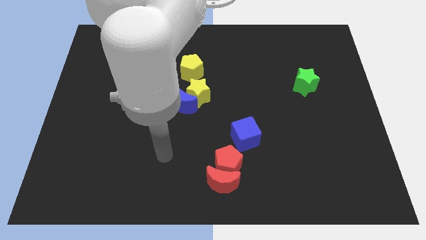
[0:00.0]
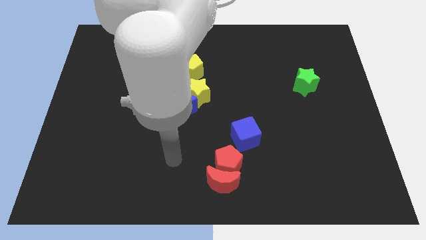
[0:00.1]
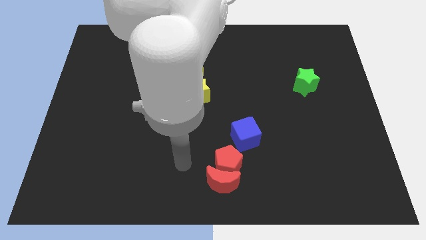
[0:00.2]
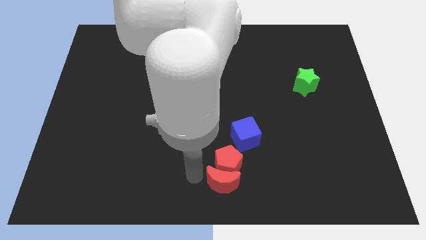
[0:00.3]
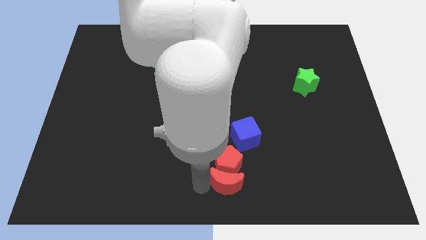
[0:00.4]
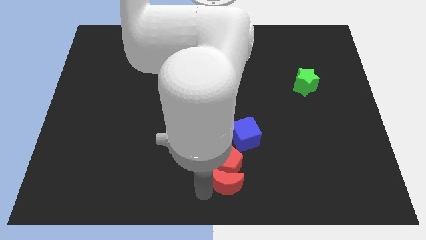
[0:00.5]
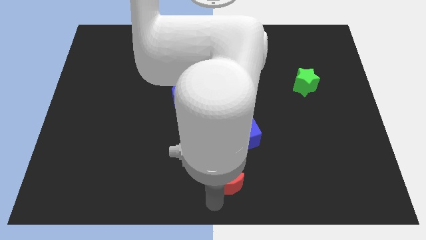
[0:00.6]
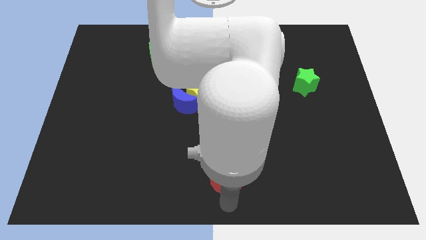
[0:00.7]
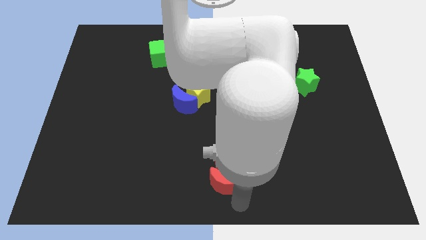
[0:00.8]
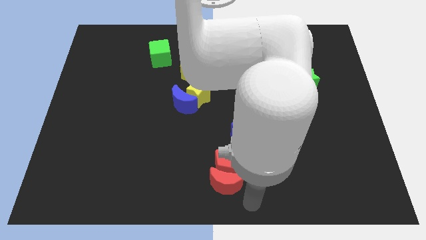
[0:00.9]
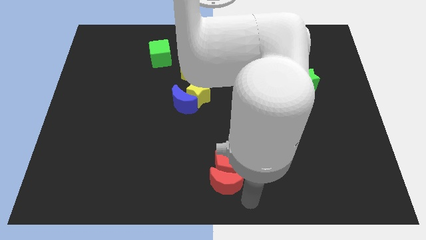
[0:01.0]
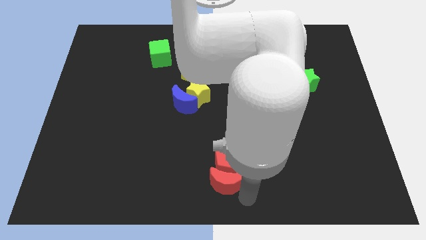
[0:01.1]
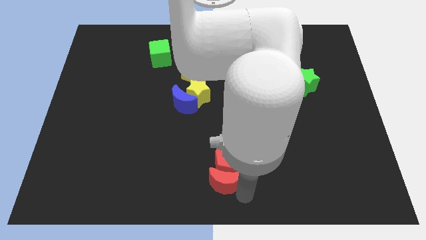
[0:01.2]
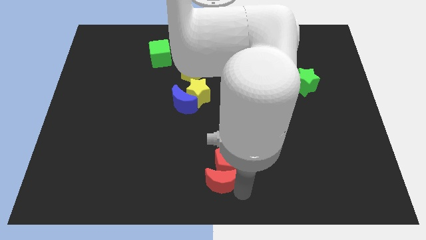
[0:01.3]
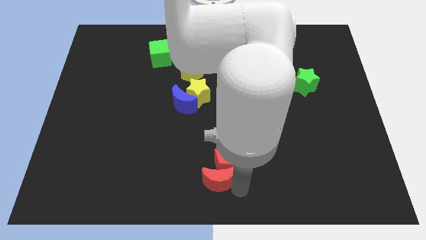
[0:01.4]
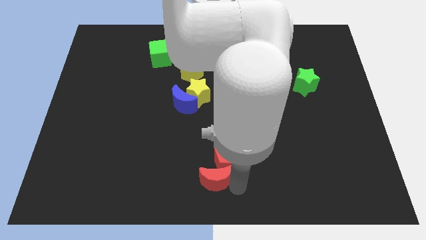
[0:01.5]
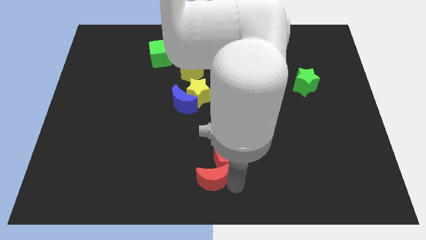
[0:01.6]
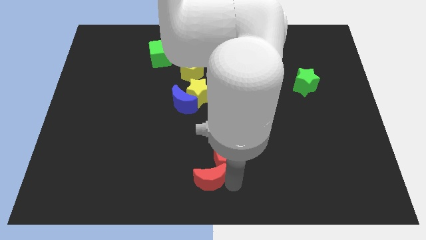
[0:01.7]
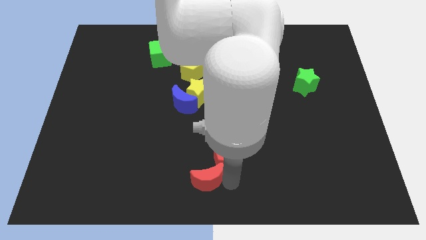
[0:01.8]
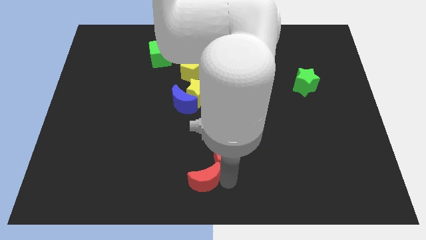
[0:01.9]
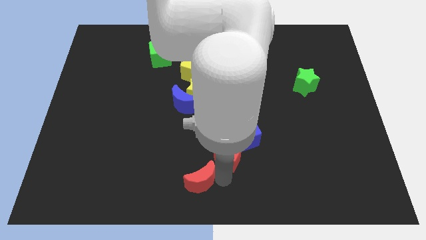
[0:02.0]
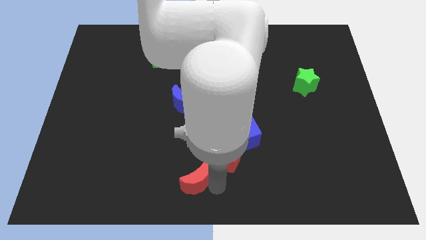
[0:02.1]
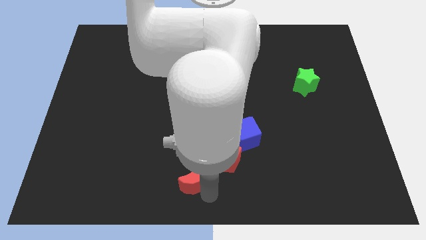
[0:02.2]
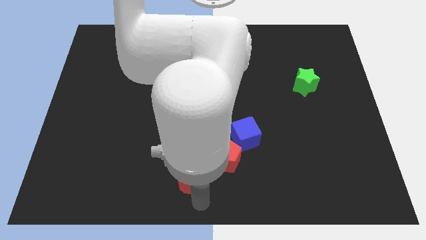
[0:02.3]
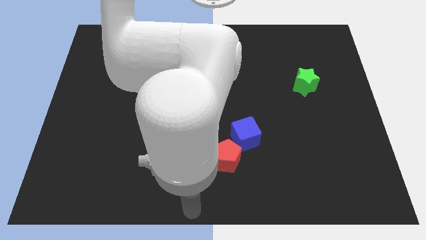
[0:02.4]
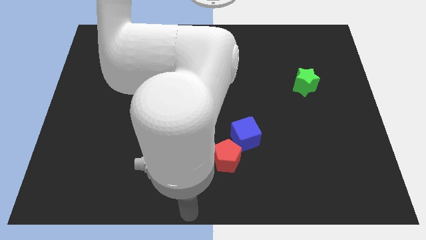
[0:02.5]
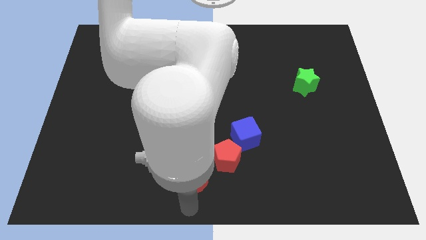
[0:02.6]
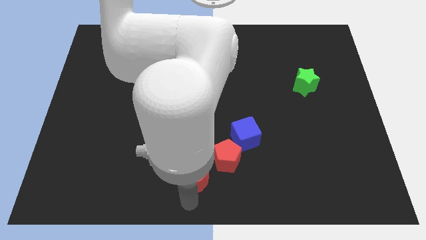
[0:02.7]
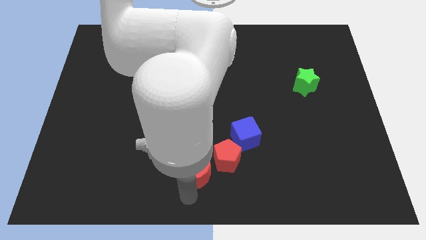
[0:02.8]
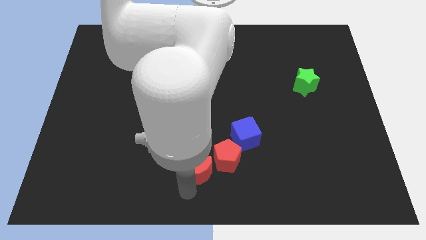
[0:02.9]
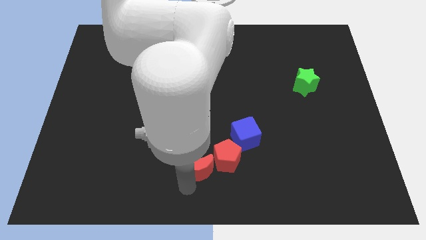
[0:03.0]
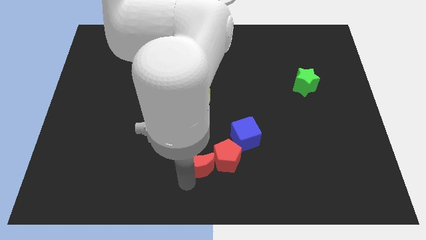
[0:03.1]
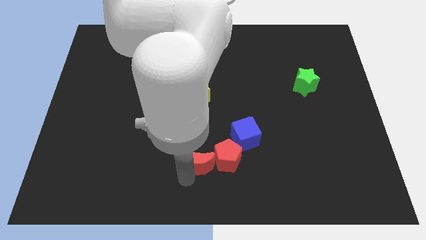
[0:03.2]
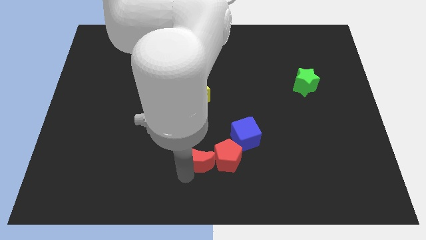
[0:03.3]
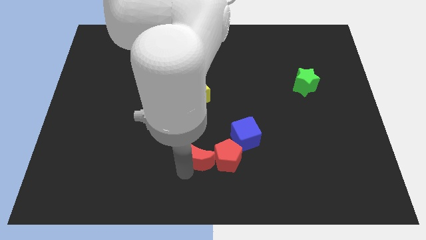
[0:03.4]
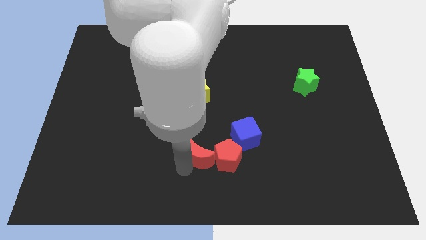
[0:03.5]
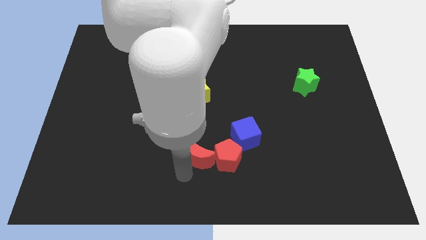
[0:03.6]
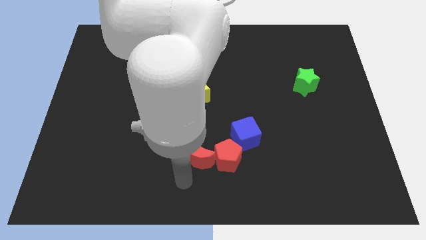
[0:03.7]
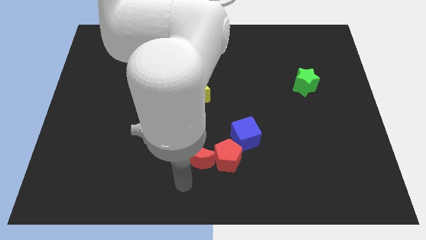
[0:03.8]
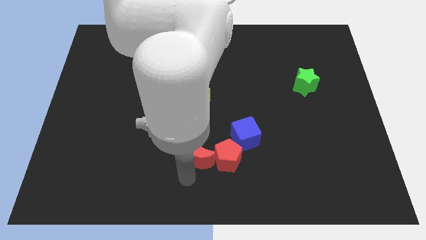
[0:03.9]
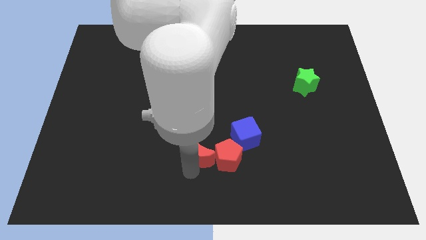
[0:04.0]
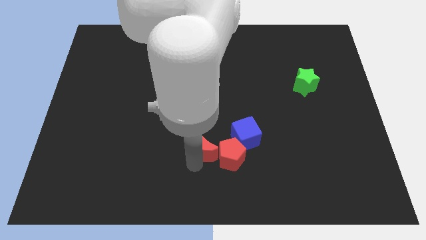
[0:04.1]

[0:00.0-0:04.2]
slightly slide the red moon upwards

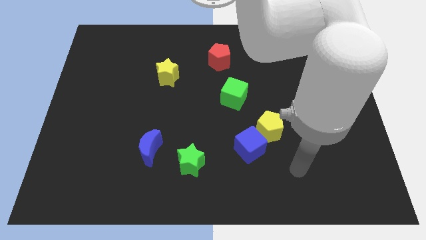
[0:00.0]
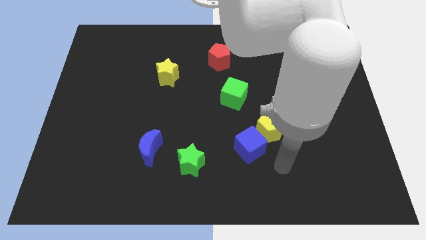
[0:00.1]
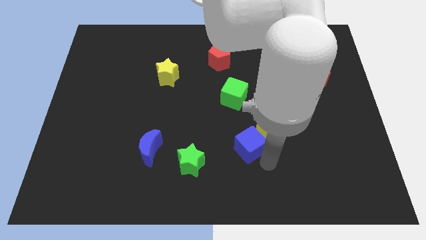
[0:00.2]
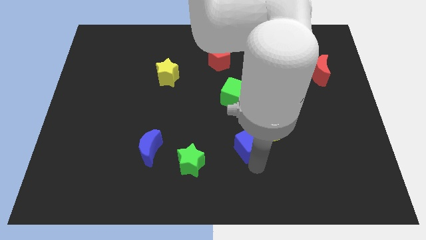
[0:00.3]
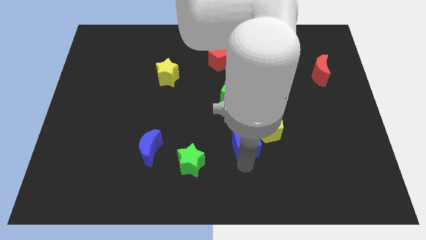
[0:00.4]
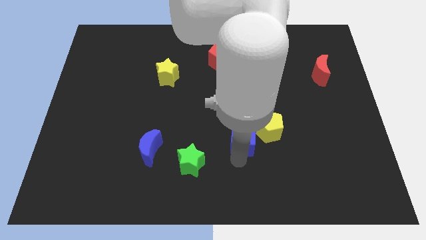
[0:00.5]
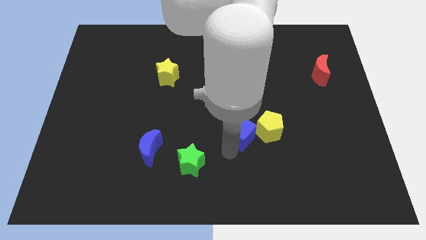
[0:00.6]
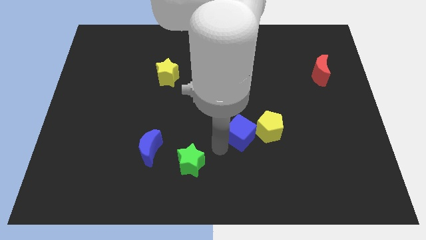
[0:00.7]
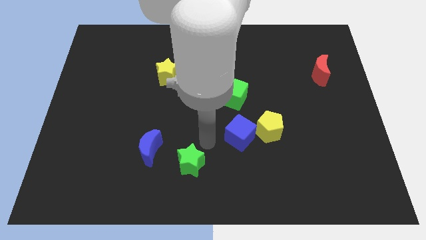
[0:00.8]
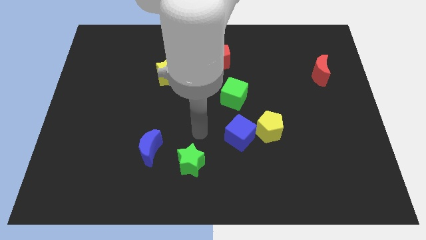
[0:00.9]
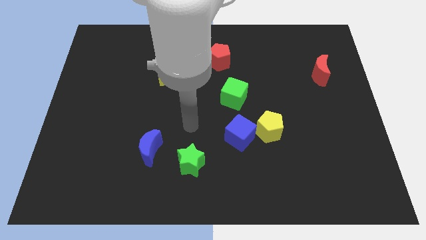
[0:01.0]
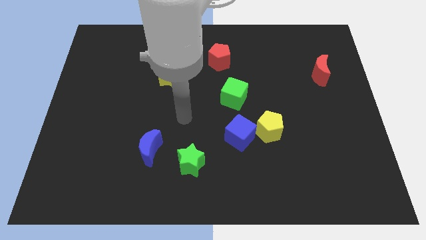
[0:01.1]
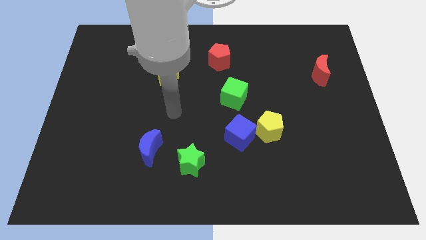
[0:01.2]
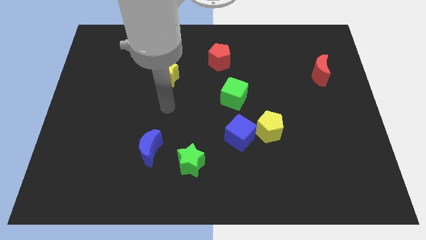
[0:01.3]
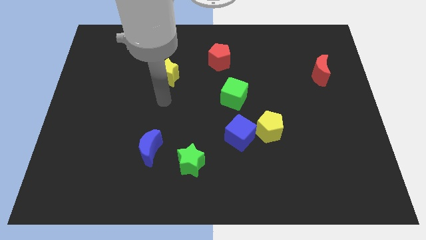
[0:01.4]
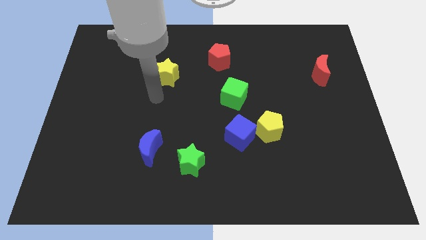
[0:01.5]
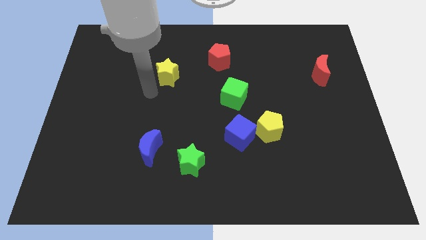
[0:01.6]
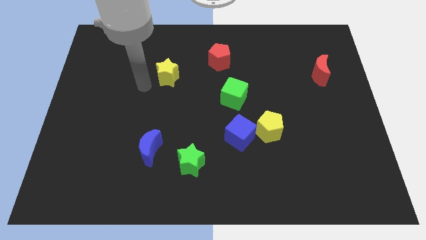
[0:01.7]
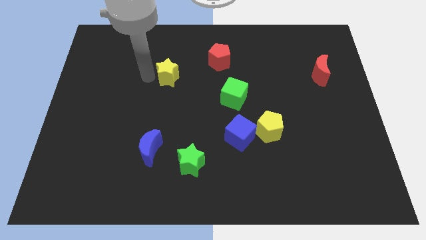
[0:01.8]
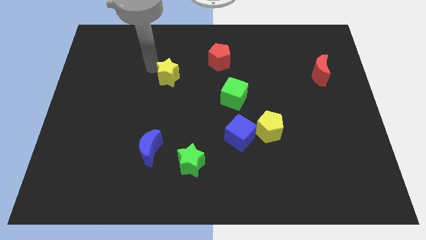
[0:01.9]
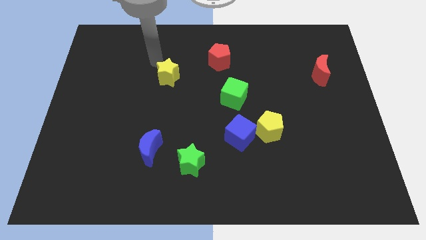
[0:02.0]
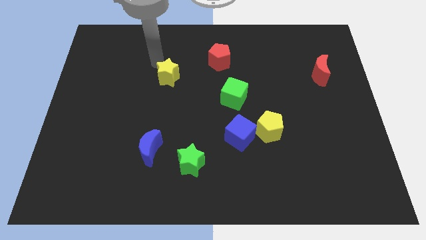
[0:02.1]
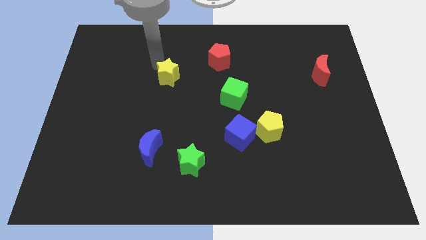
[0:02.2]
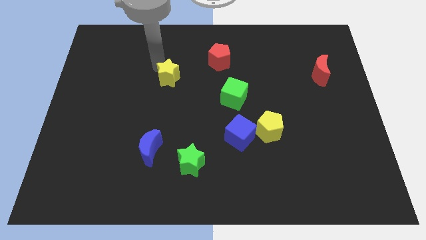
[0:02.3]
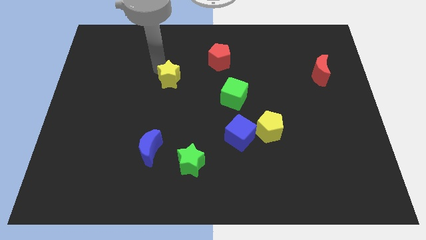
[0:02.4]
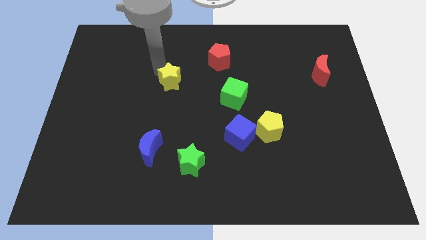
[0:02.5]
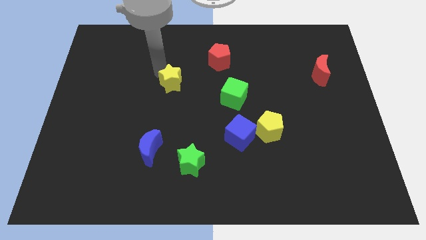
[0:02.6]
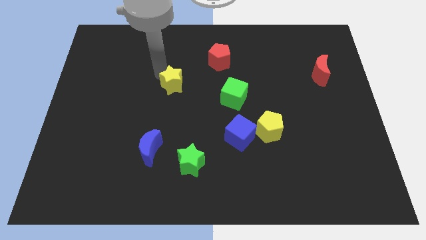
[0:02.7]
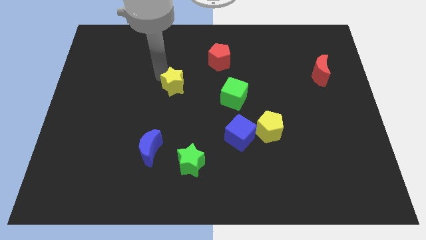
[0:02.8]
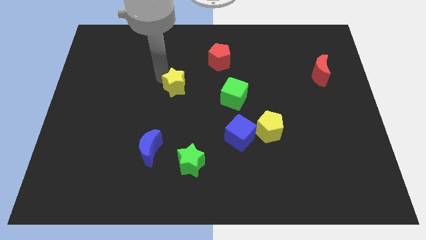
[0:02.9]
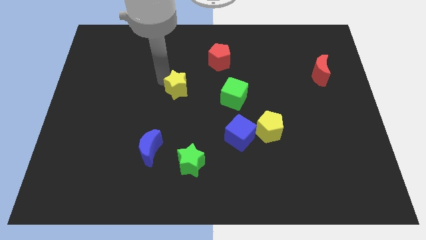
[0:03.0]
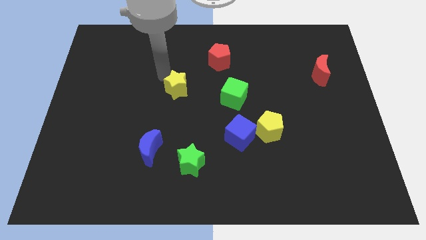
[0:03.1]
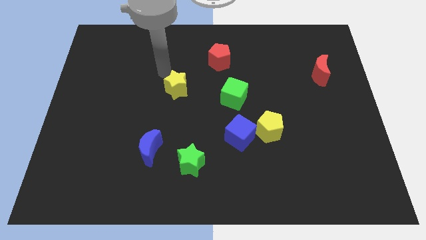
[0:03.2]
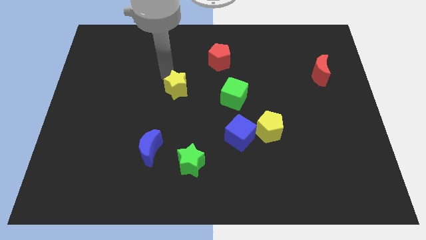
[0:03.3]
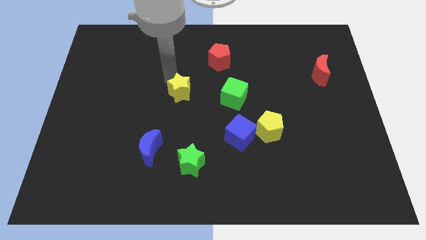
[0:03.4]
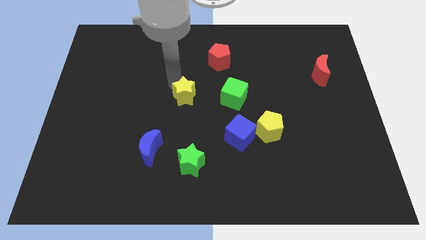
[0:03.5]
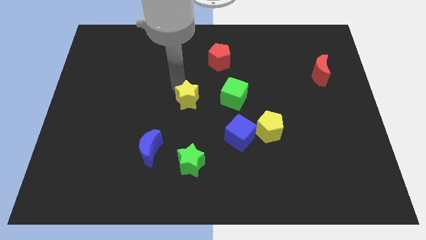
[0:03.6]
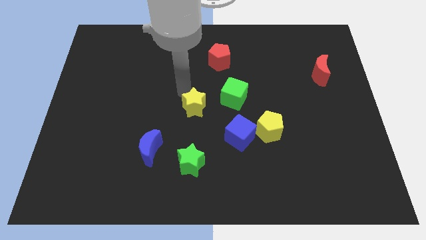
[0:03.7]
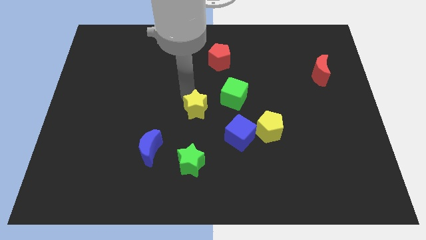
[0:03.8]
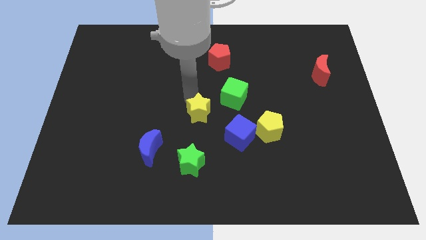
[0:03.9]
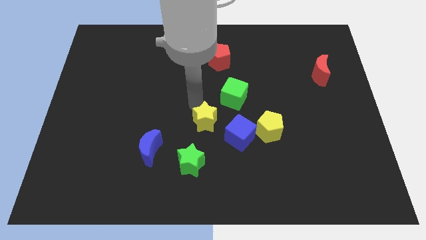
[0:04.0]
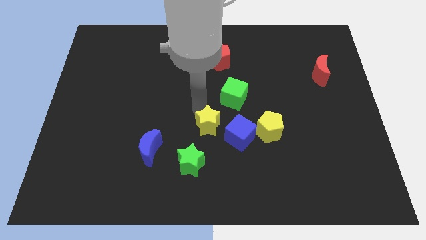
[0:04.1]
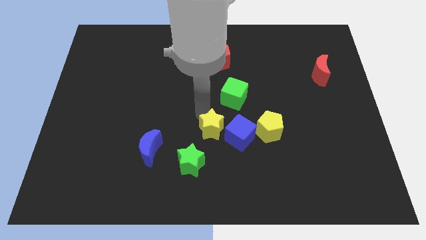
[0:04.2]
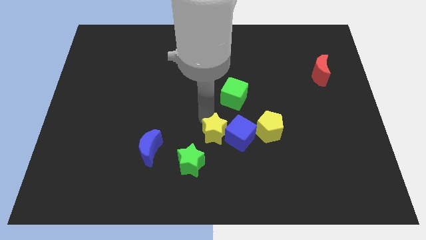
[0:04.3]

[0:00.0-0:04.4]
move the yellow star downwards and right diagonally
